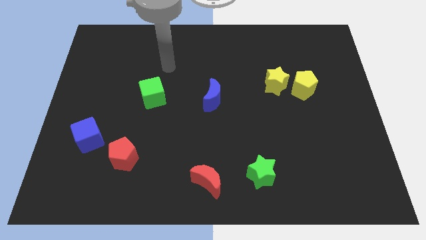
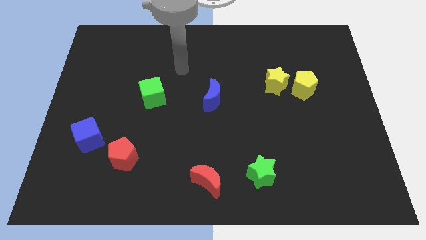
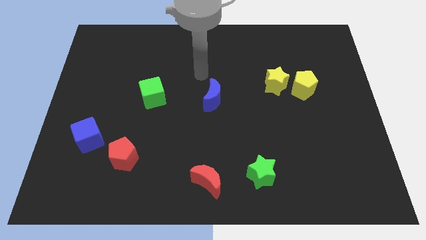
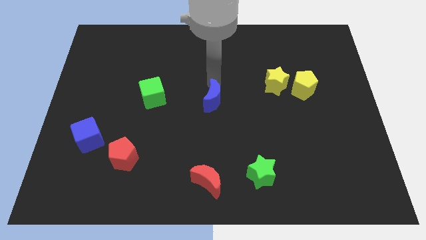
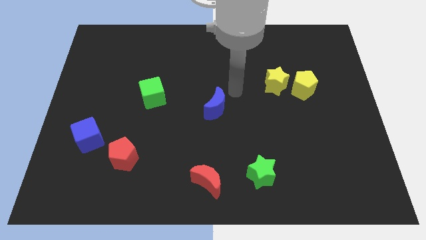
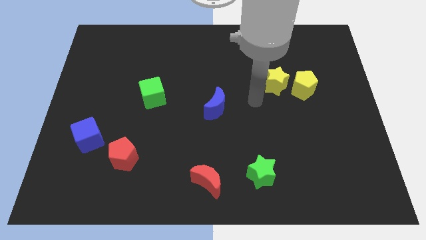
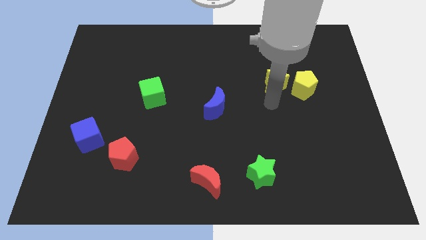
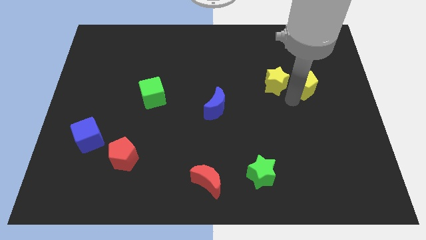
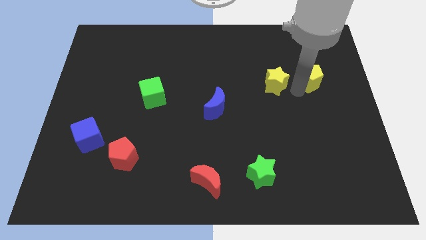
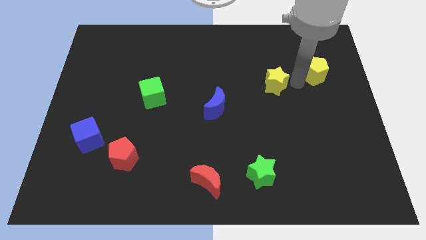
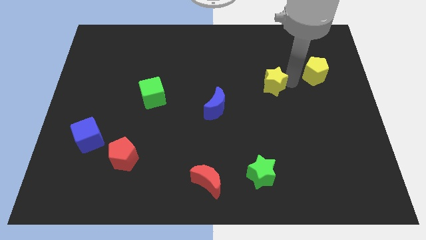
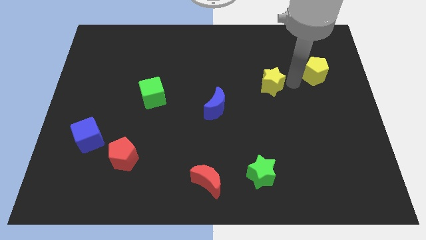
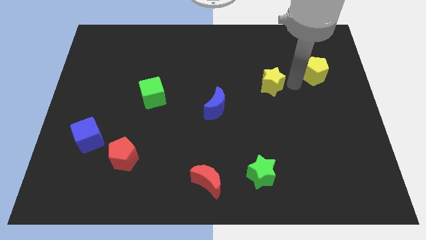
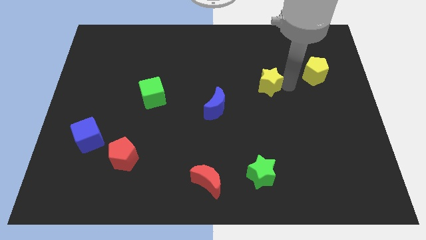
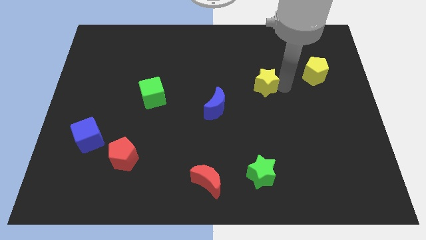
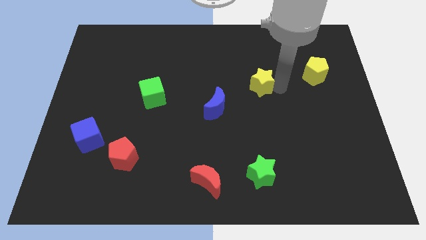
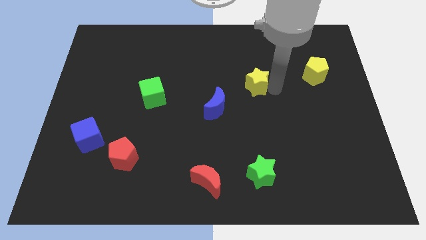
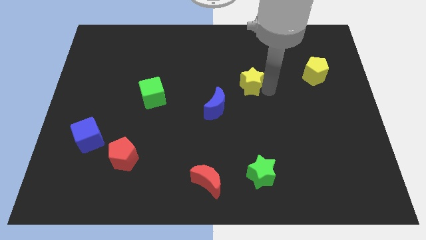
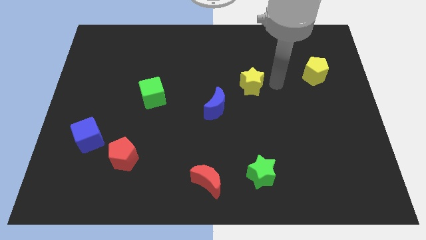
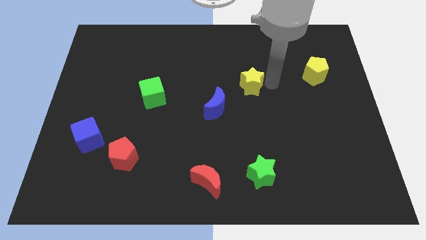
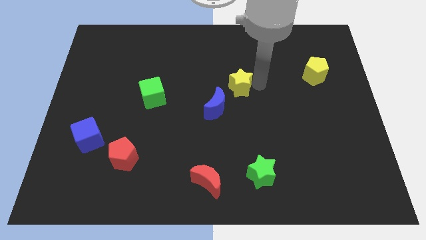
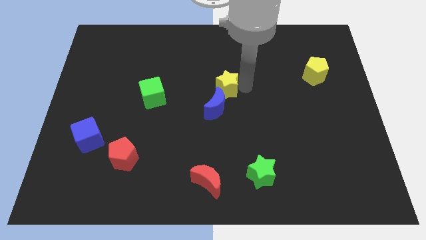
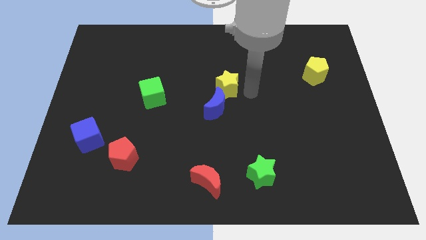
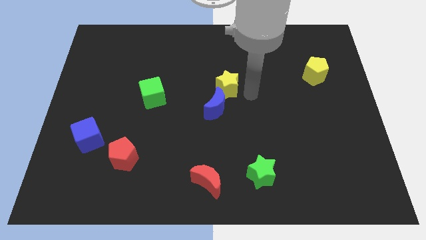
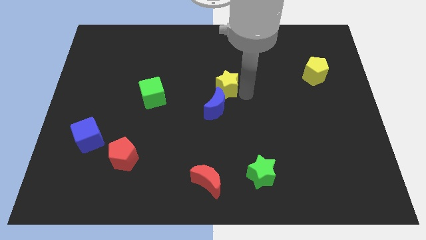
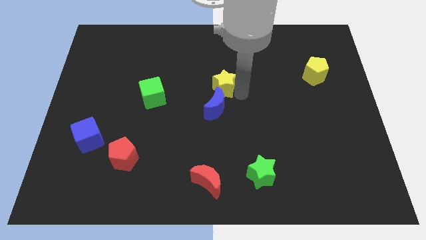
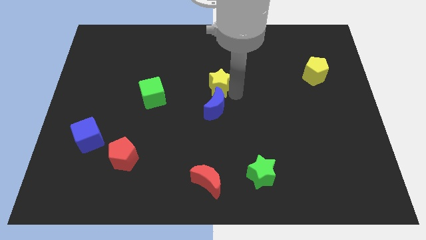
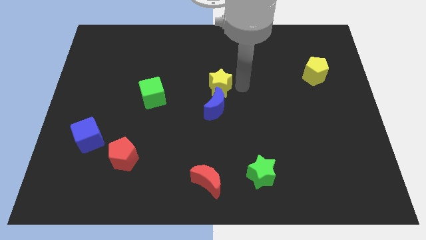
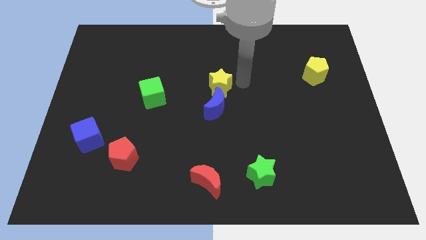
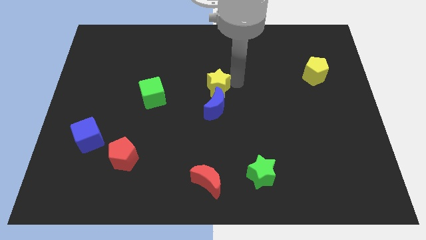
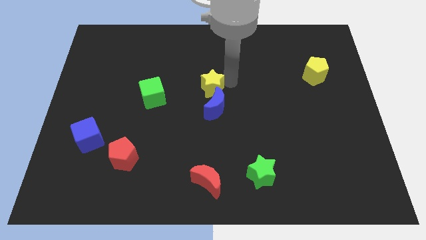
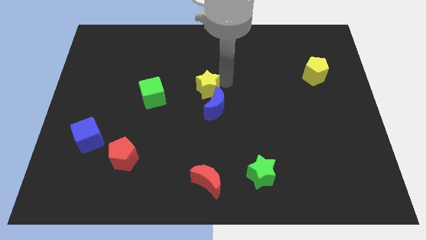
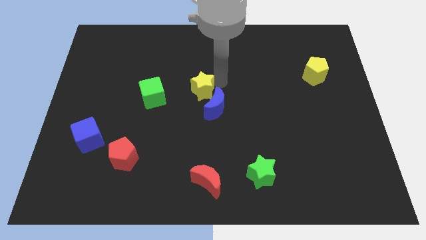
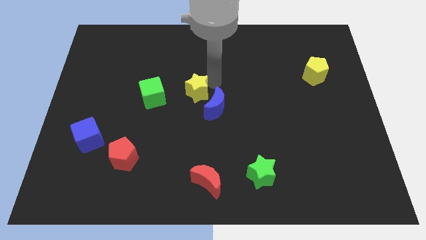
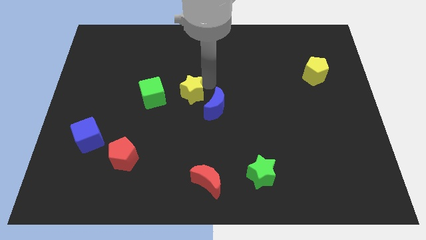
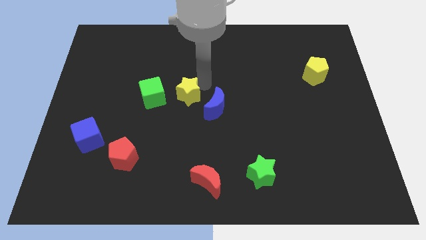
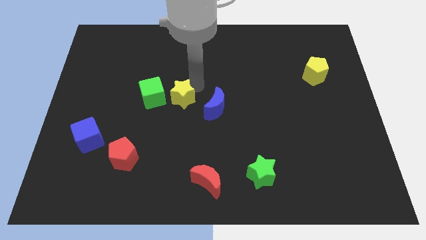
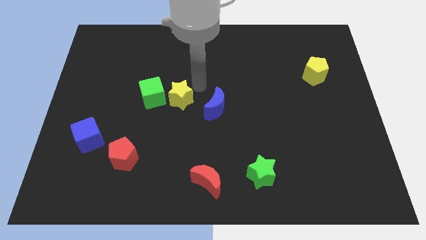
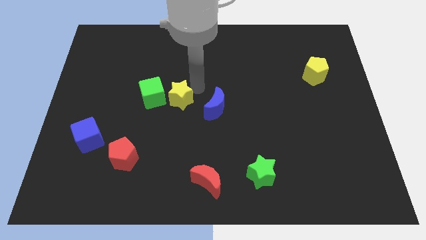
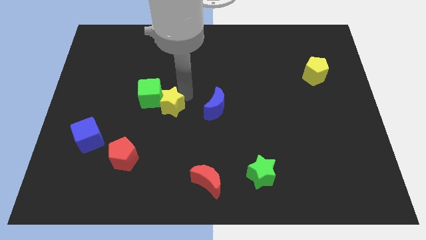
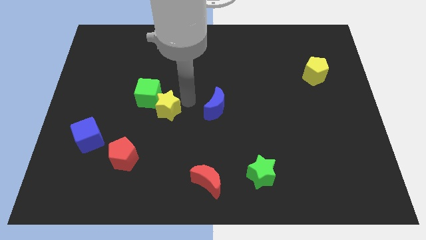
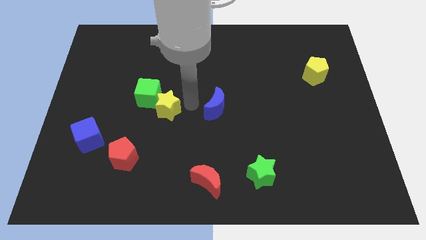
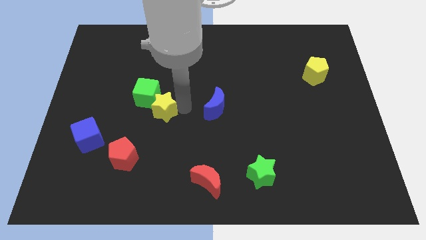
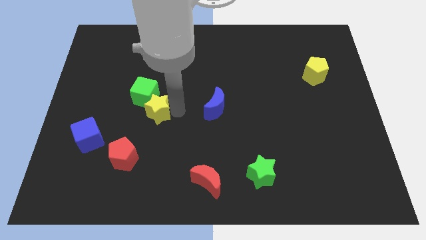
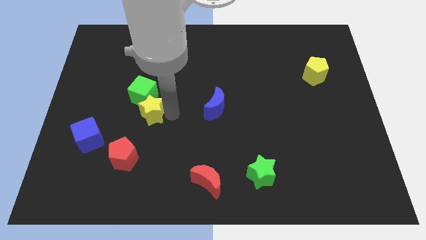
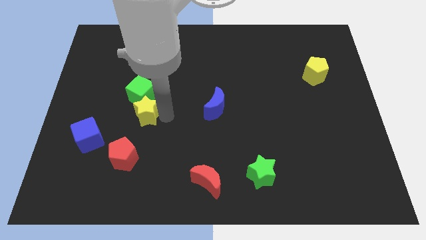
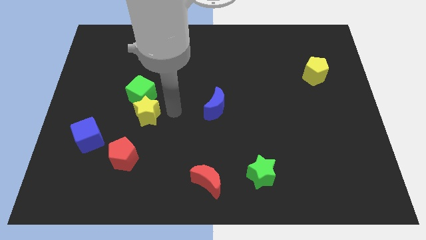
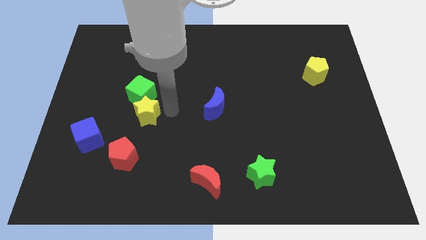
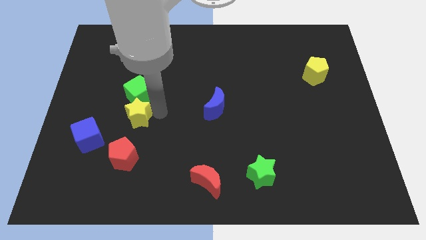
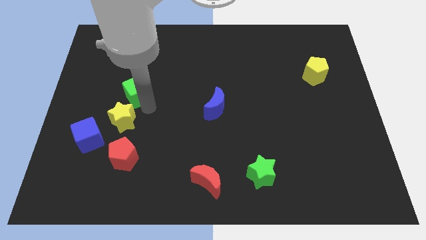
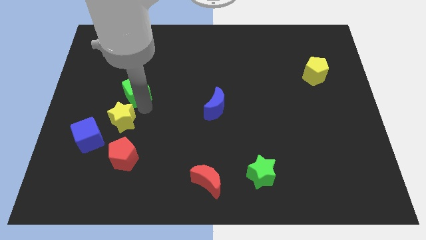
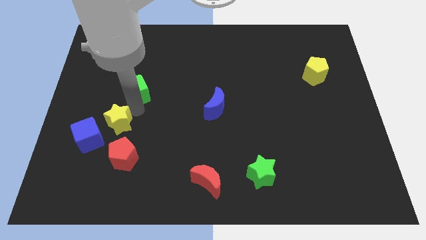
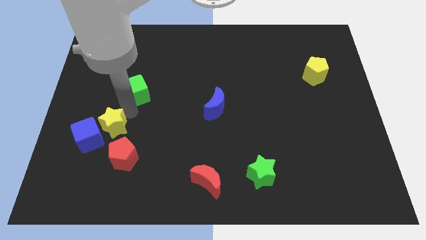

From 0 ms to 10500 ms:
move the yellow star next to the blue cube

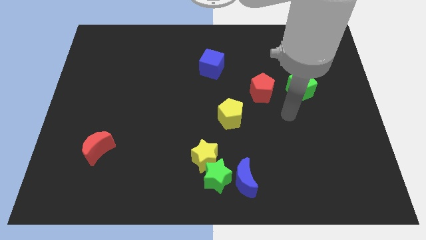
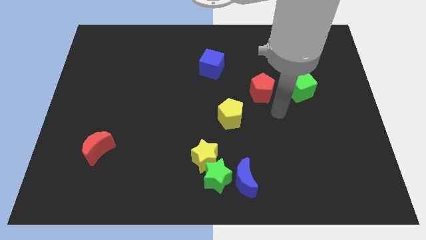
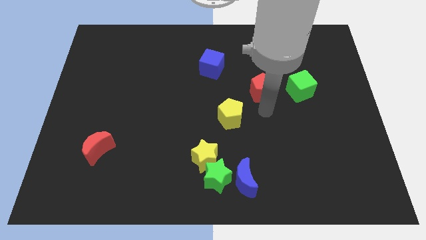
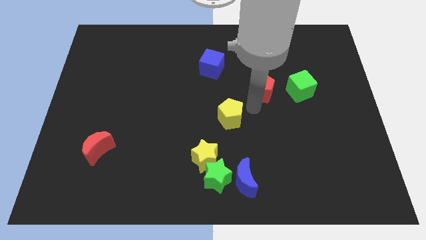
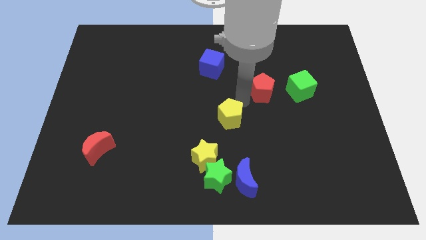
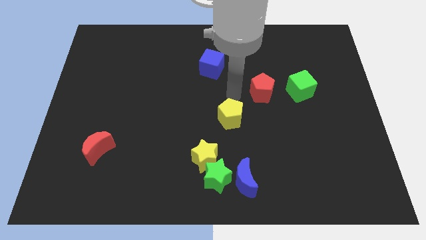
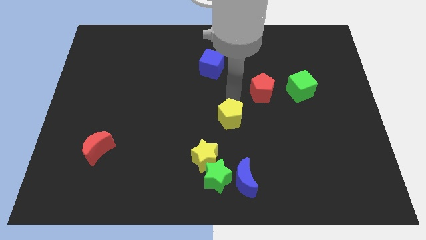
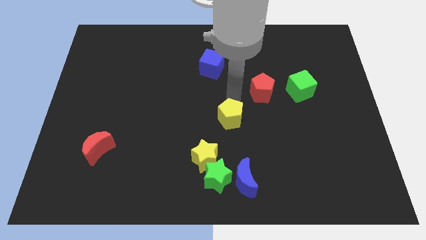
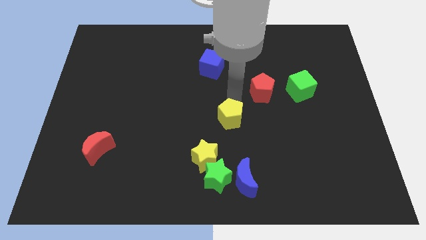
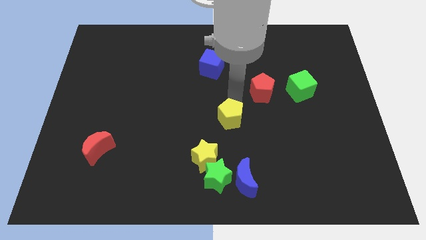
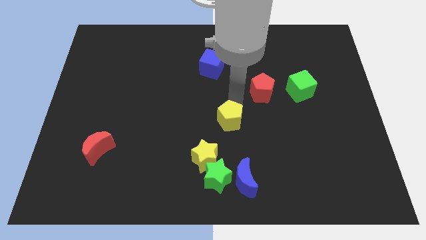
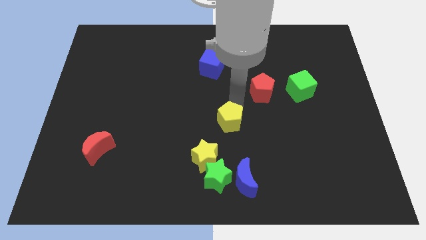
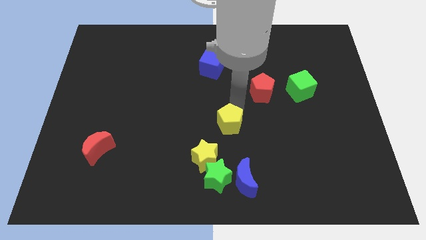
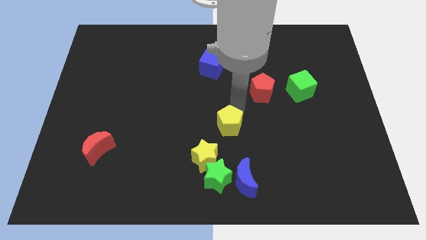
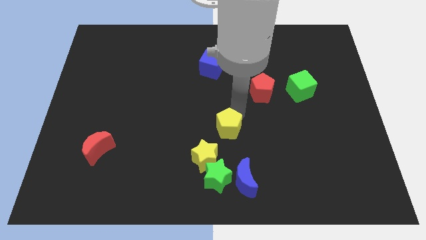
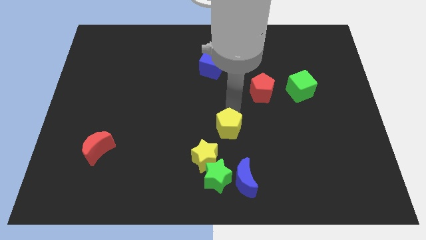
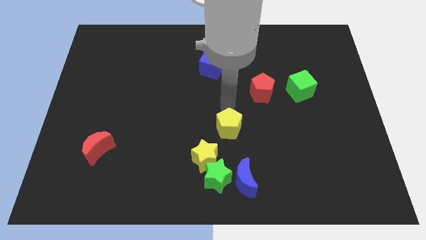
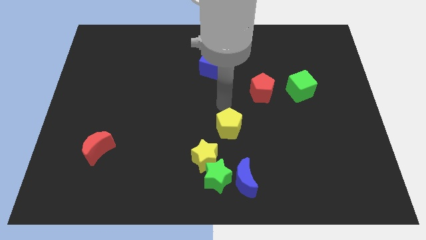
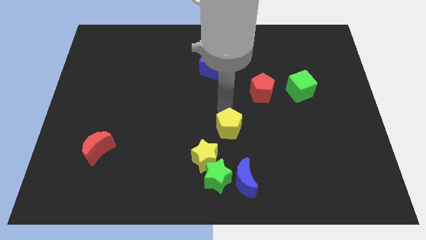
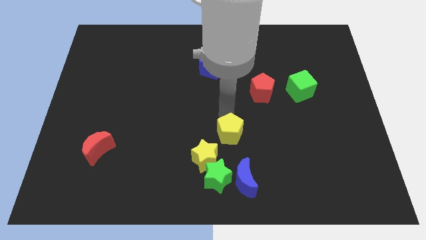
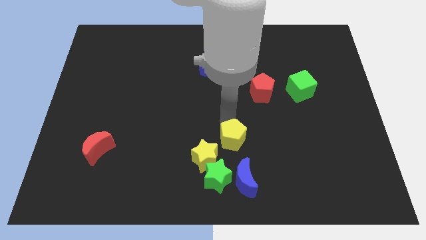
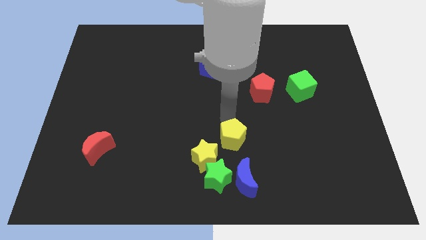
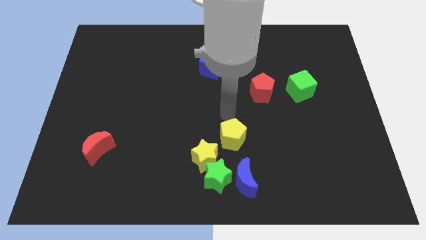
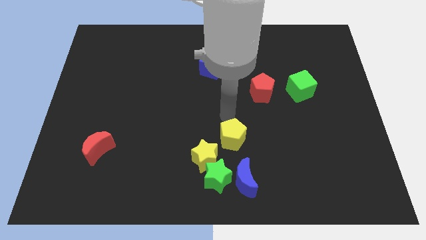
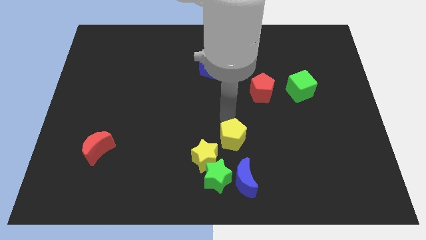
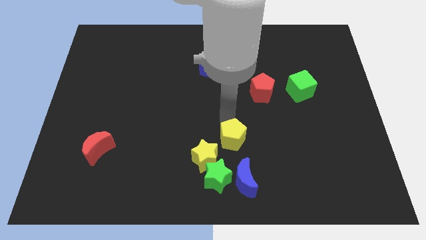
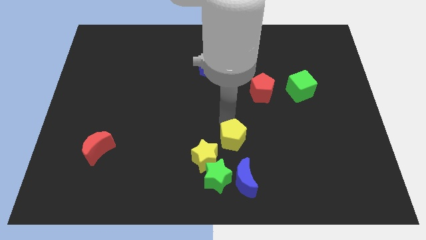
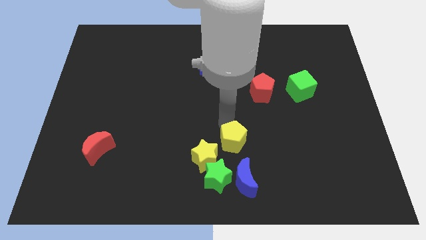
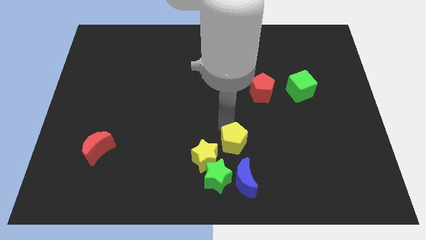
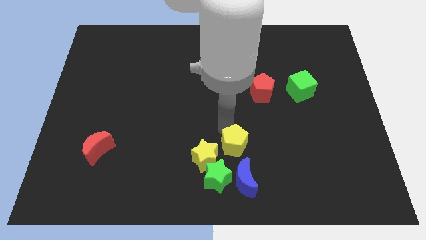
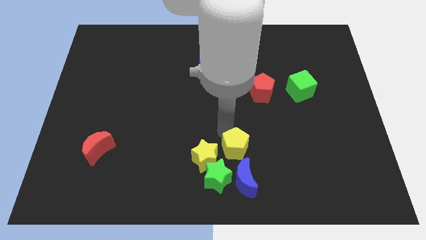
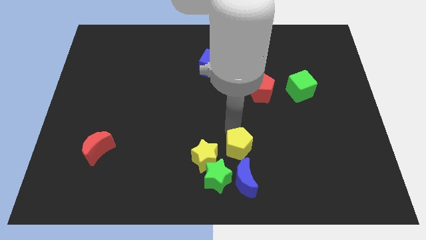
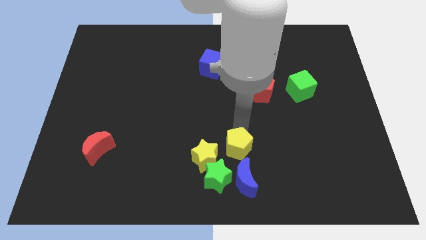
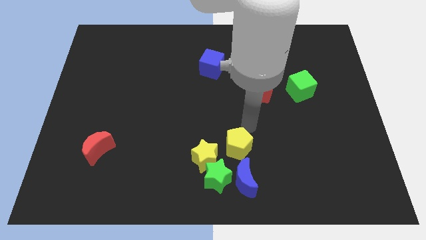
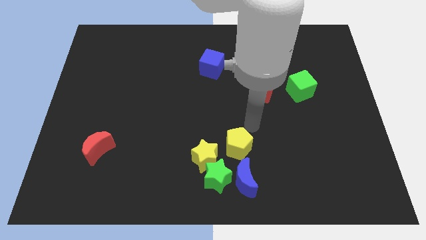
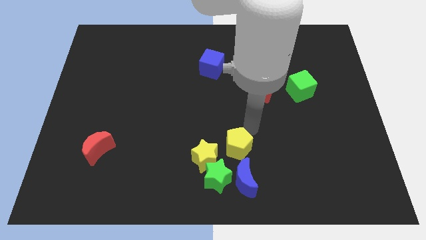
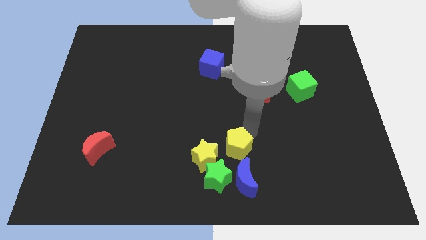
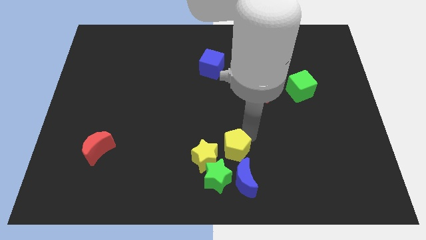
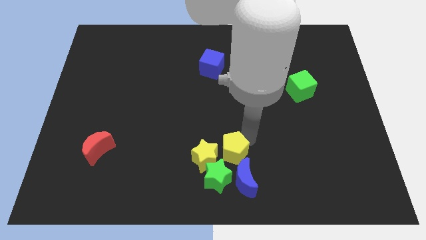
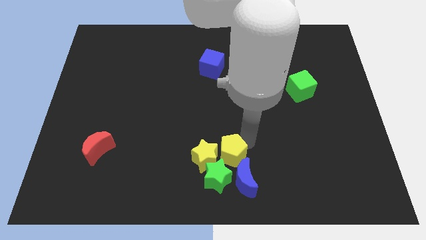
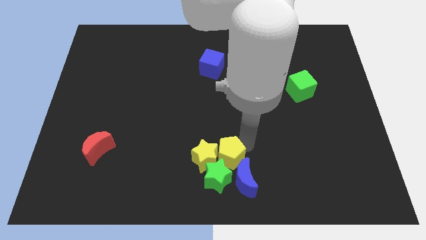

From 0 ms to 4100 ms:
move the yellow pentagon close to the green star
